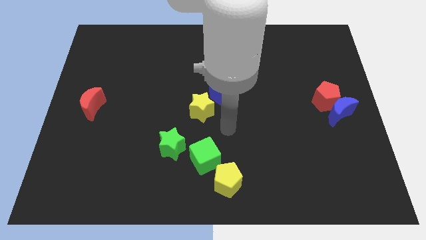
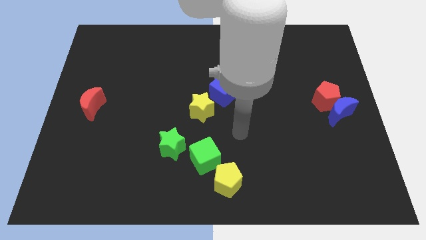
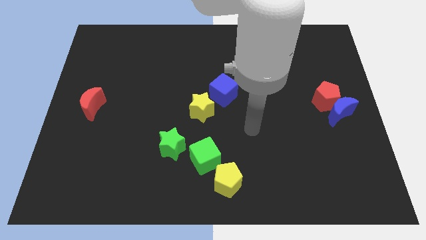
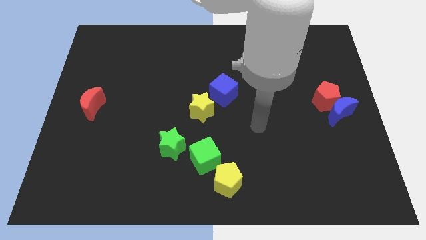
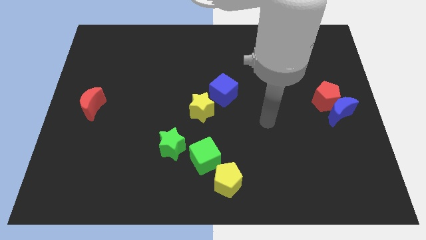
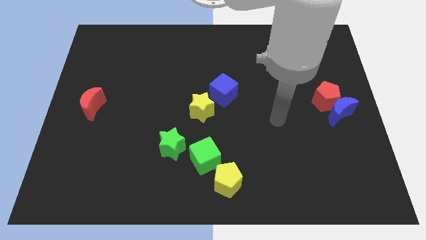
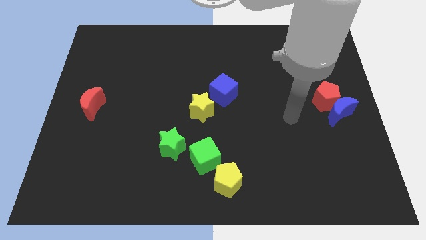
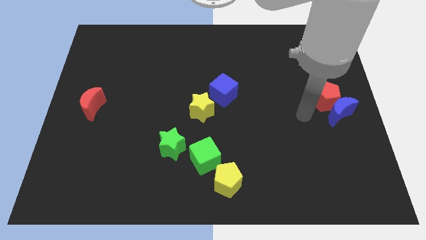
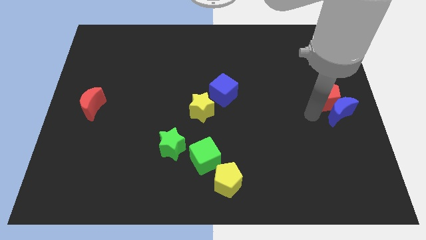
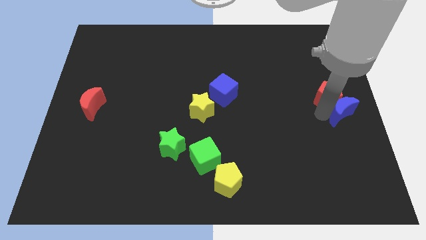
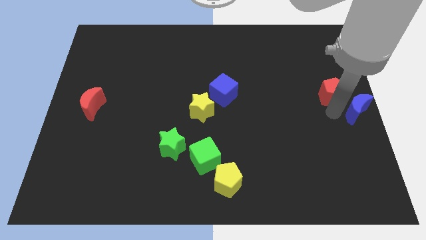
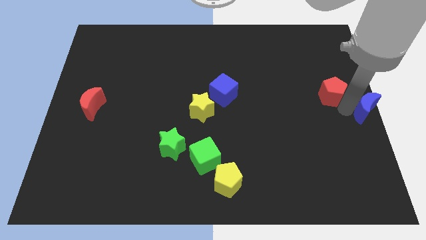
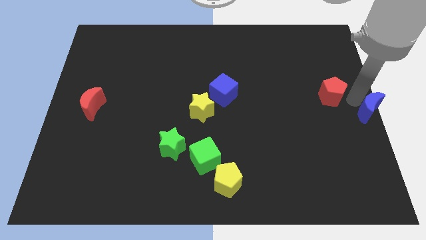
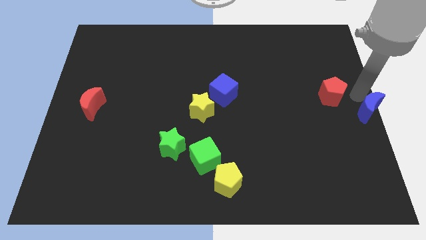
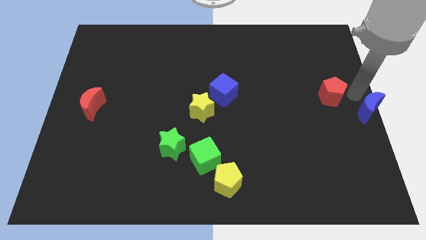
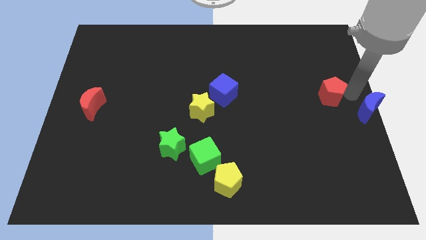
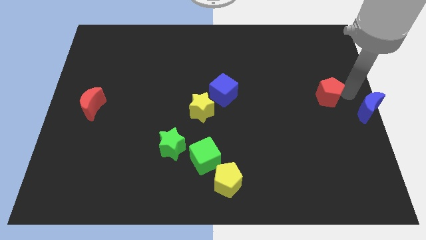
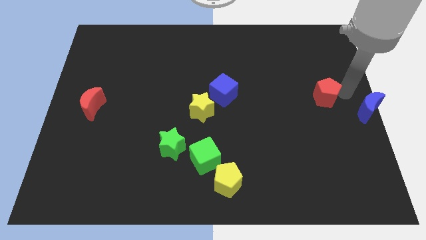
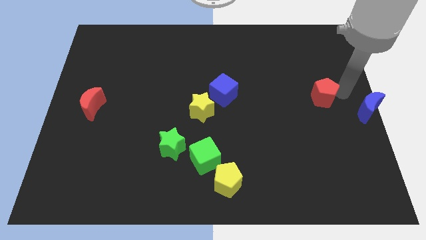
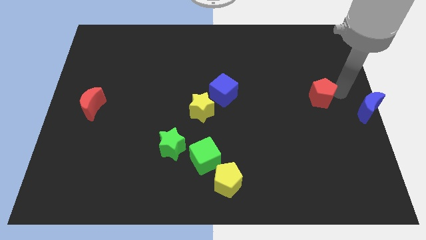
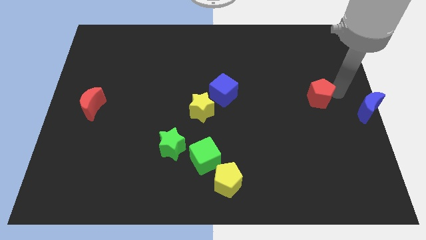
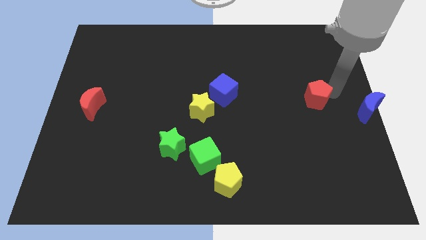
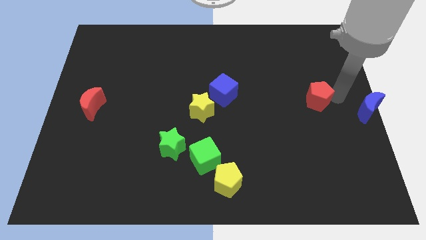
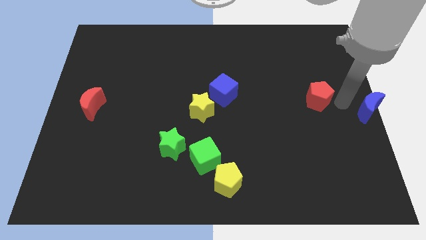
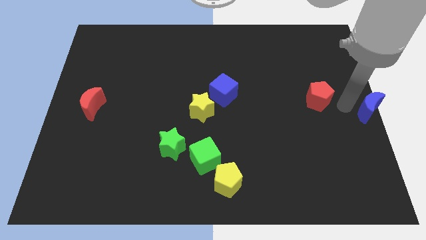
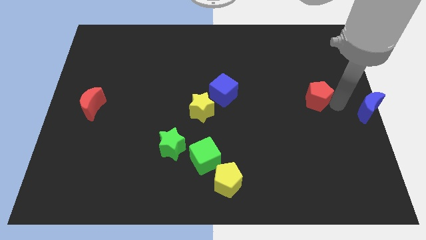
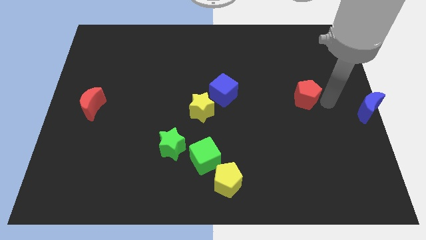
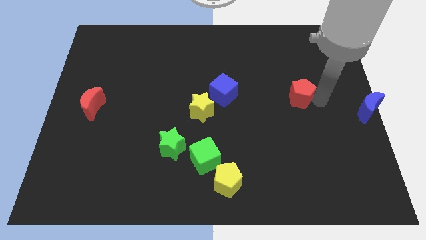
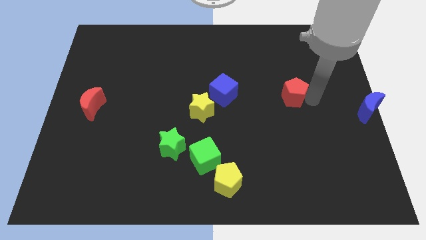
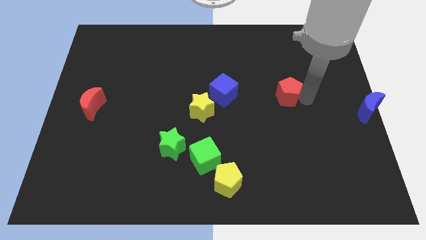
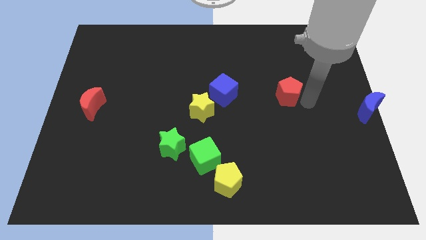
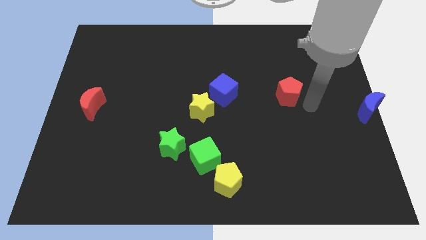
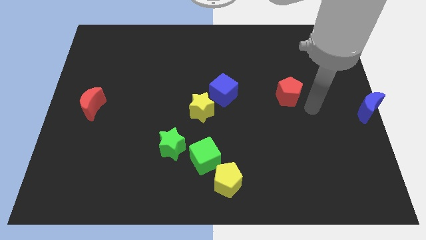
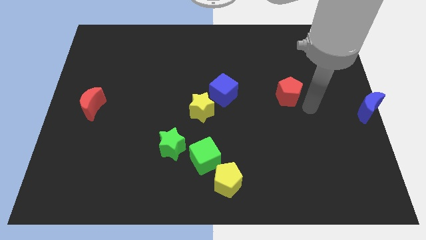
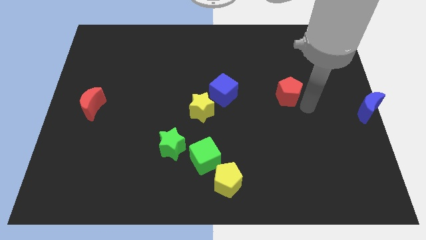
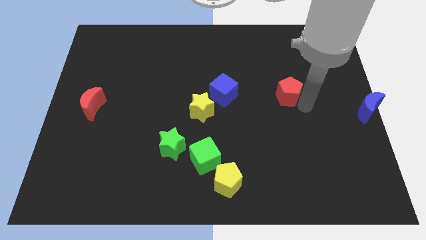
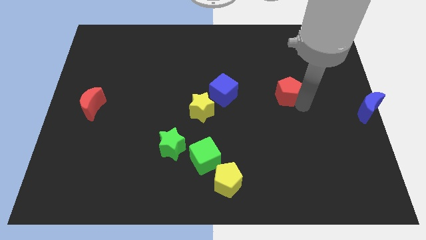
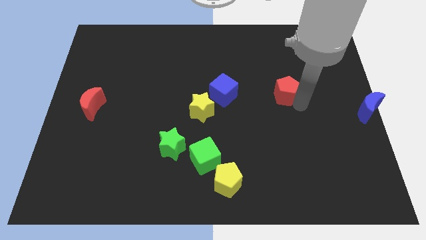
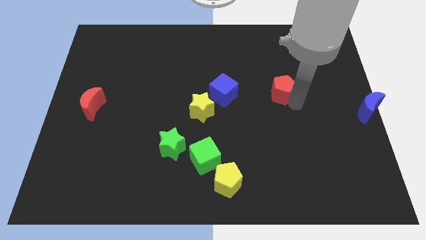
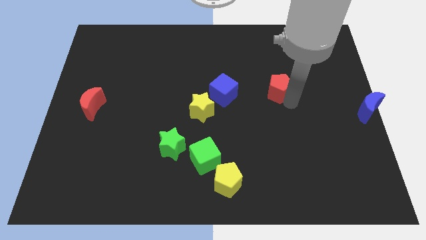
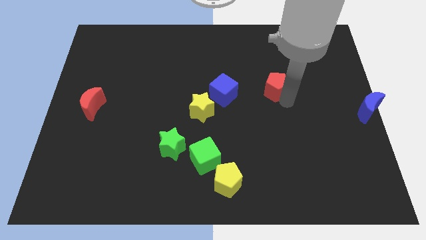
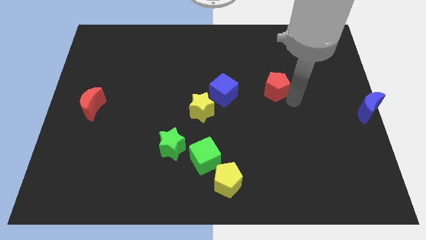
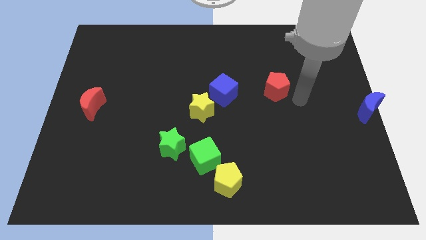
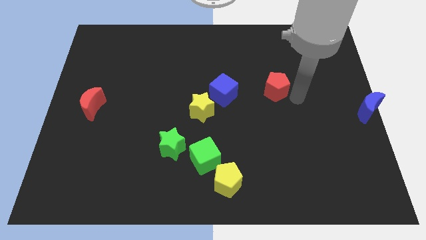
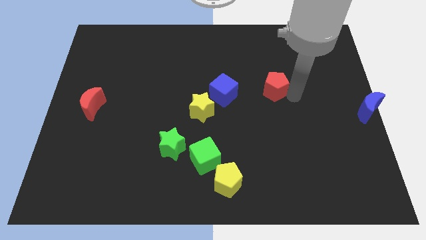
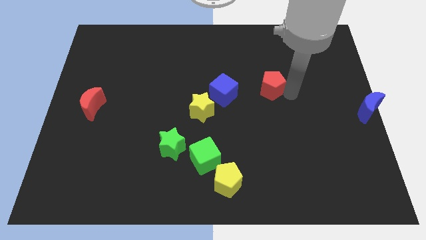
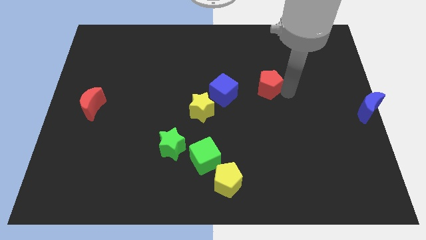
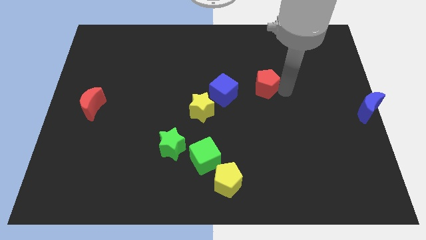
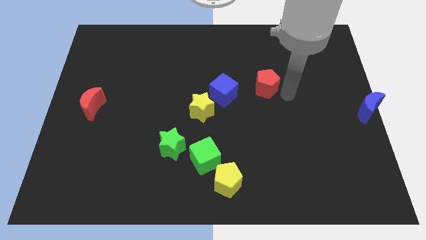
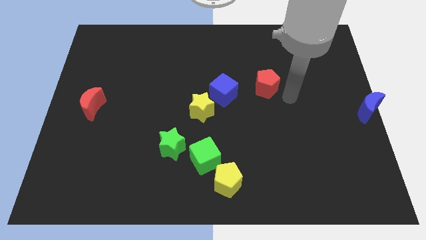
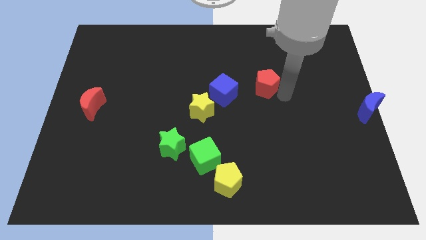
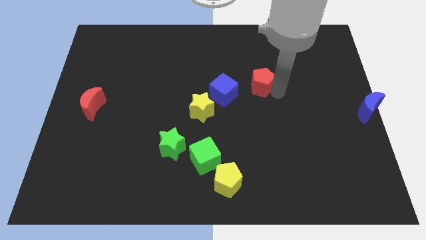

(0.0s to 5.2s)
slide the red pentagon diagonally up and to the right of the blue cube

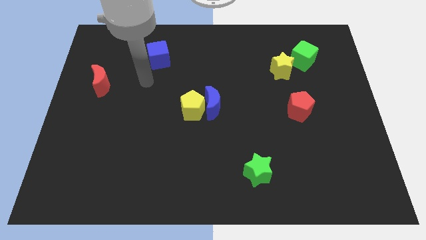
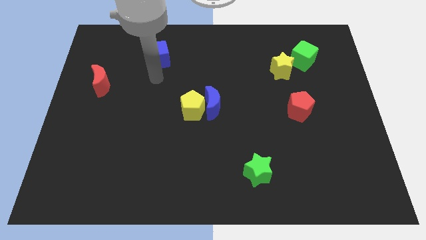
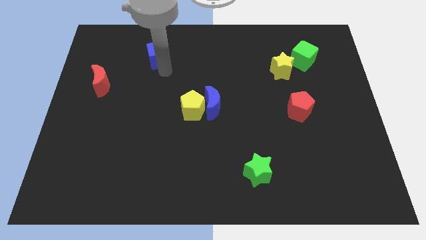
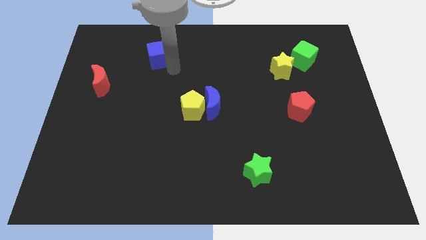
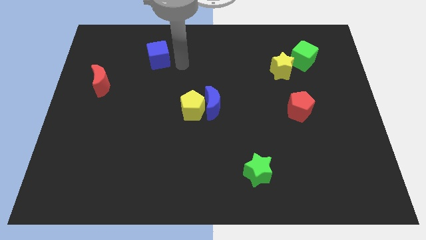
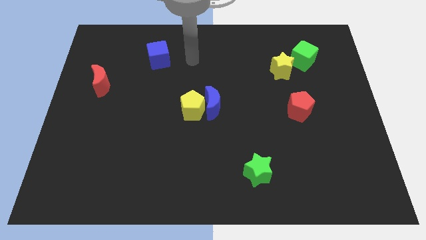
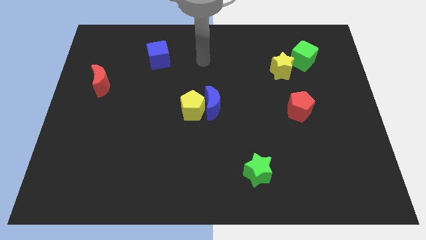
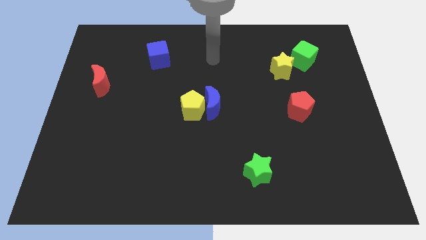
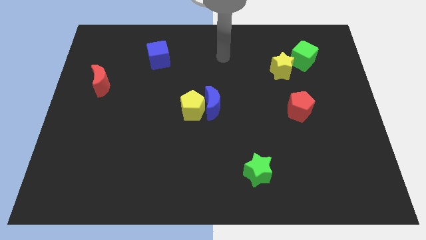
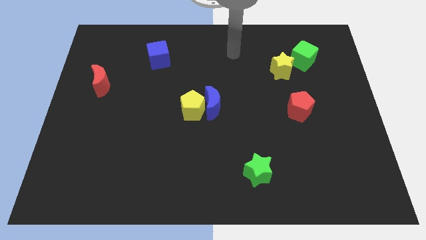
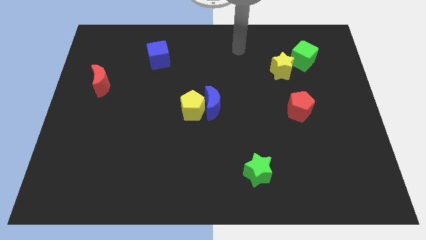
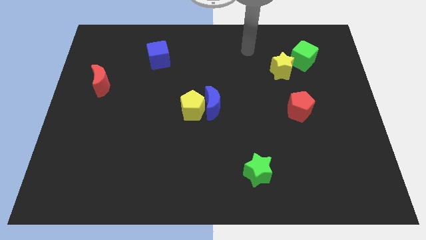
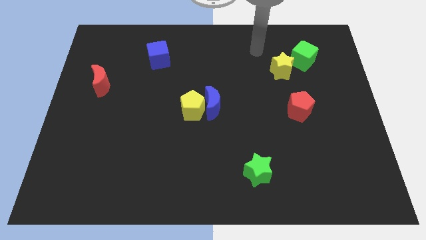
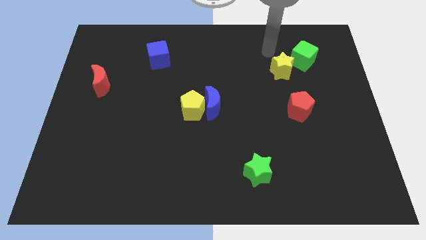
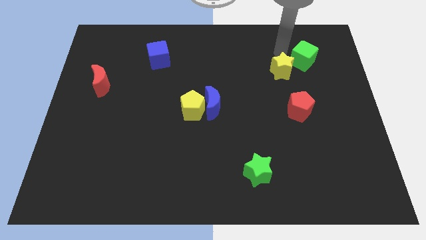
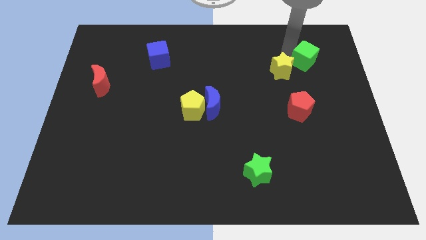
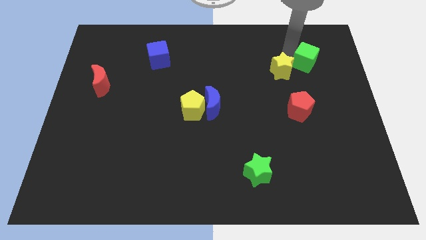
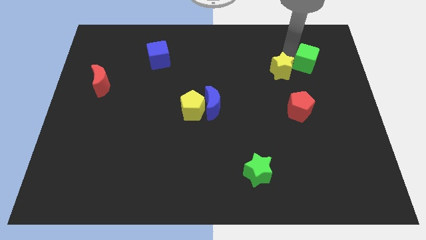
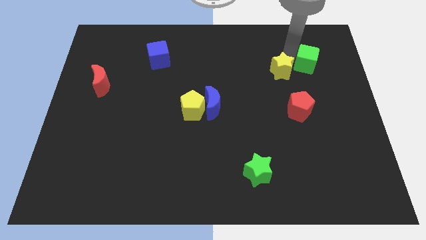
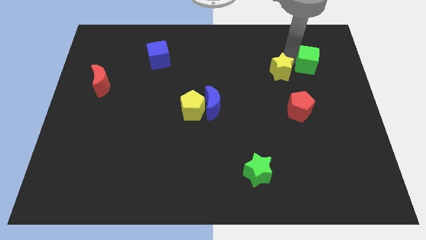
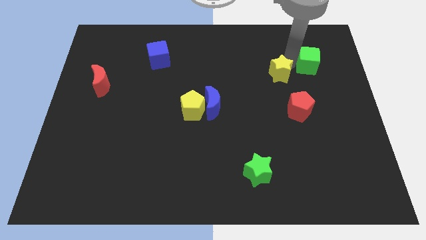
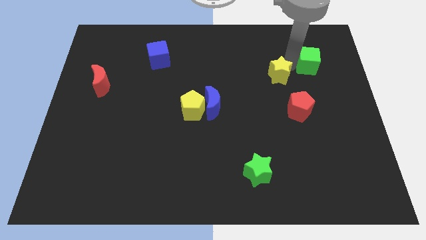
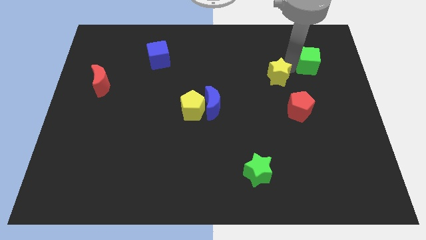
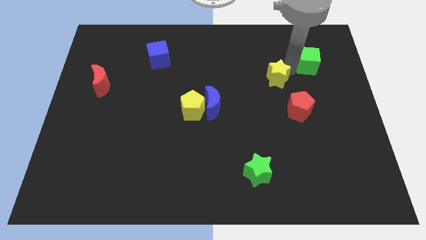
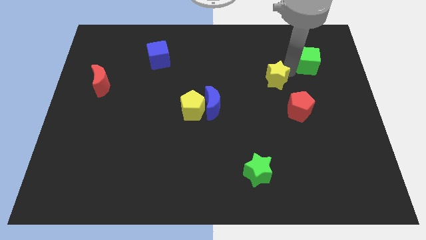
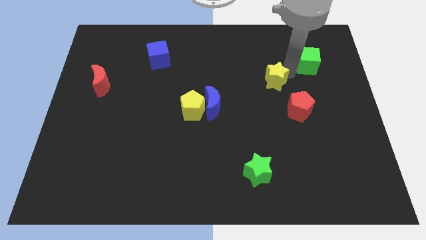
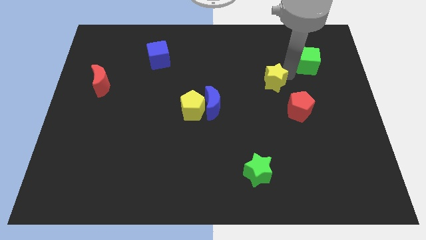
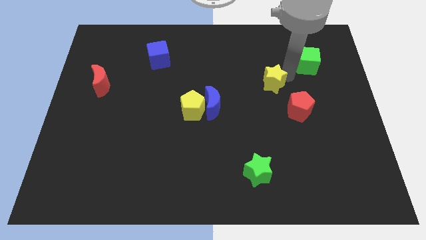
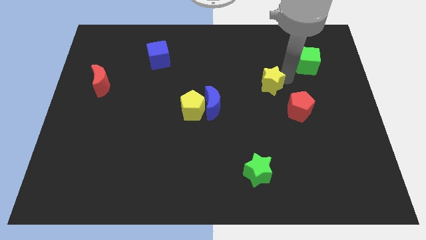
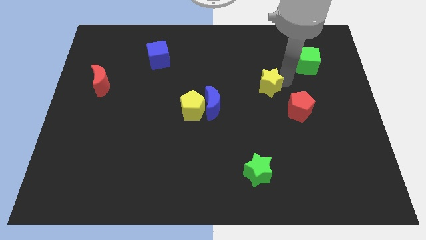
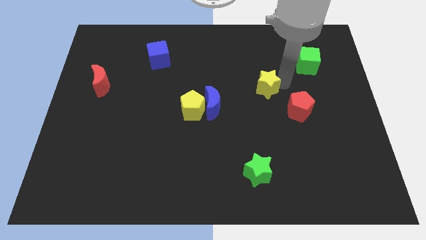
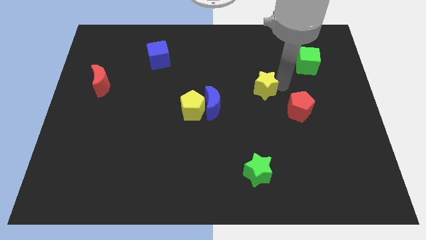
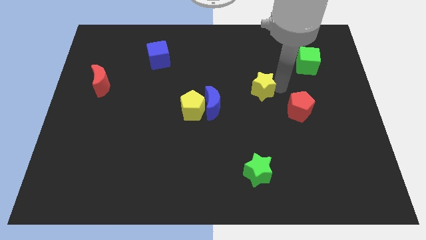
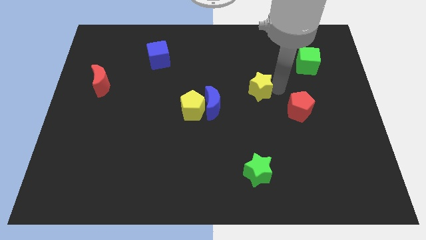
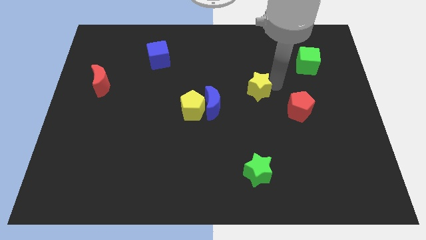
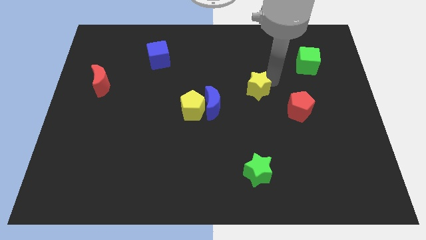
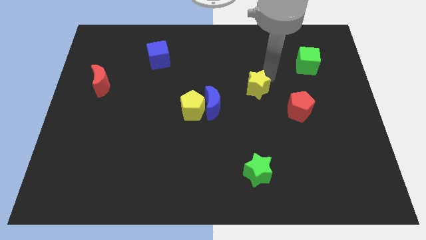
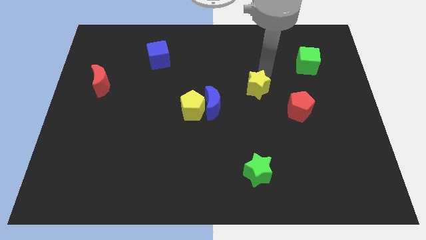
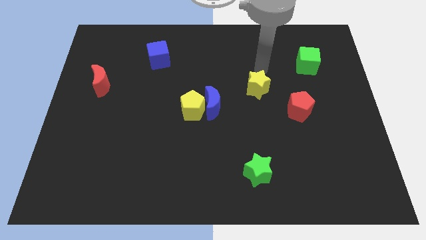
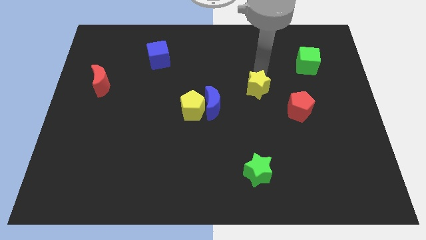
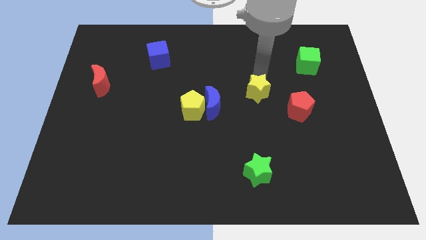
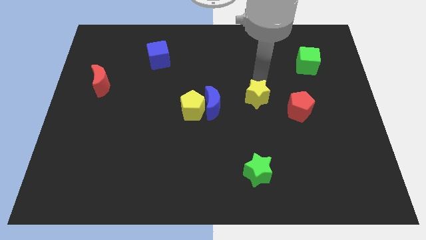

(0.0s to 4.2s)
slide the yellow star to the left side of the red pentagon
